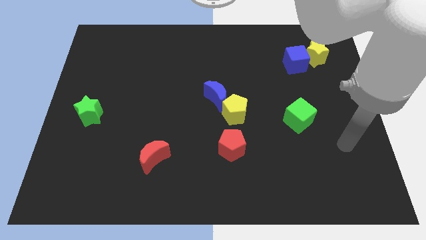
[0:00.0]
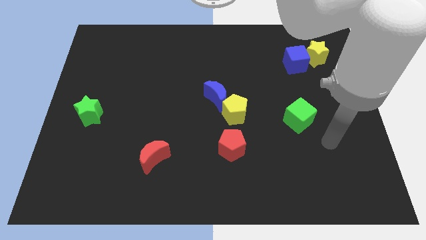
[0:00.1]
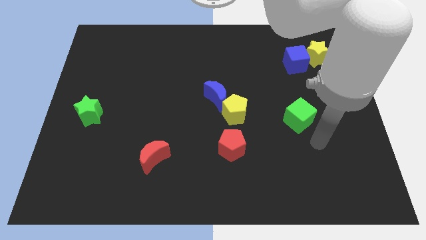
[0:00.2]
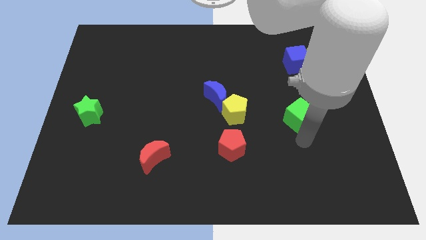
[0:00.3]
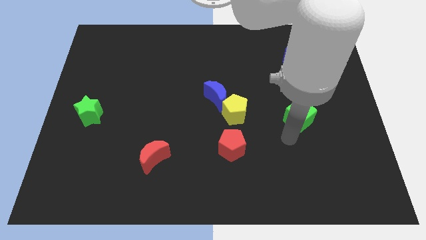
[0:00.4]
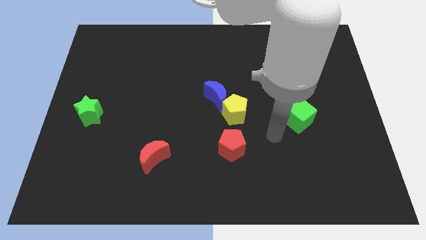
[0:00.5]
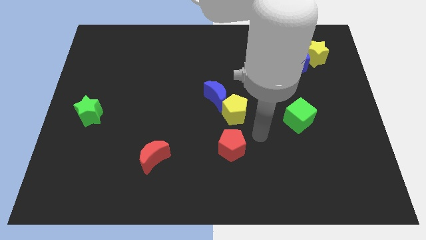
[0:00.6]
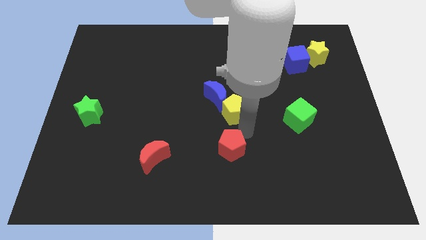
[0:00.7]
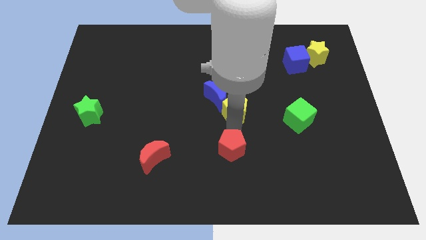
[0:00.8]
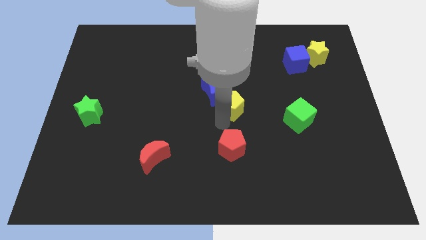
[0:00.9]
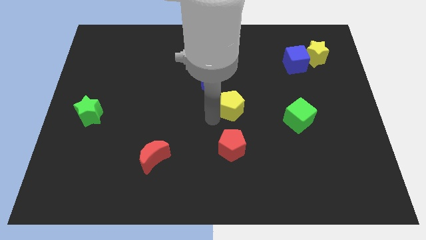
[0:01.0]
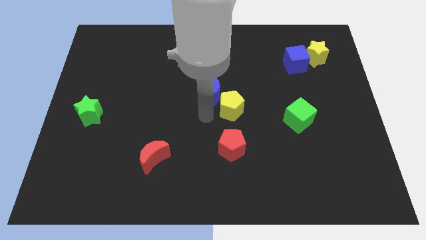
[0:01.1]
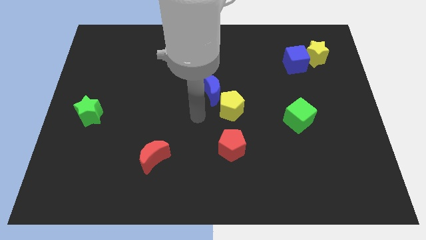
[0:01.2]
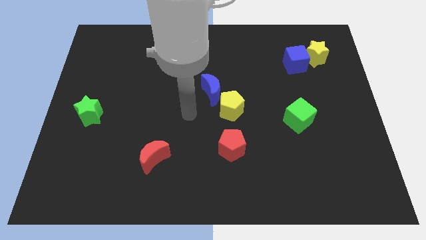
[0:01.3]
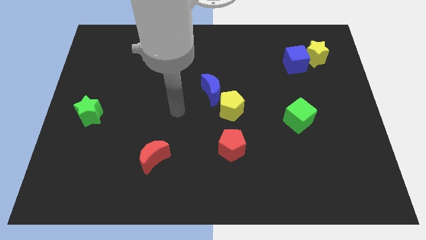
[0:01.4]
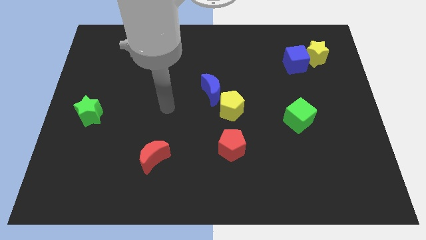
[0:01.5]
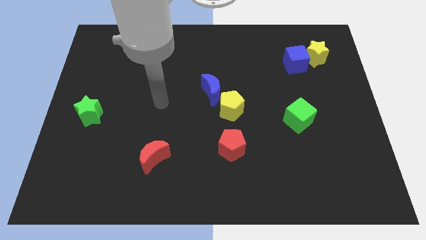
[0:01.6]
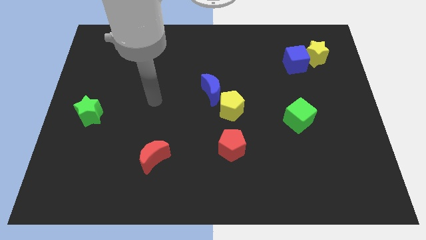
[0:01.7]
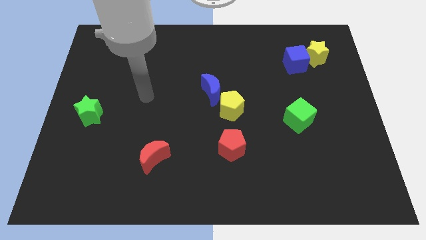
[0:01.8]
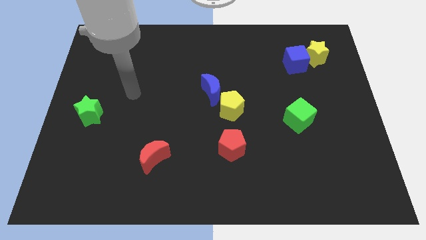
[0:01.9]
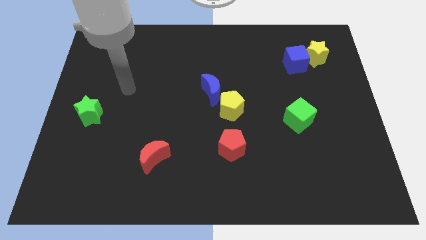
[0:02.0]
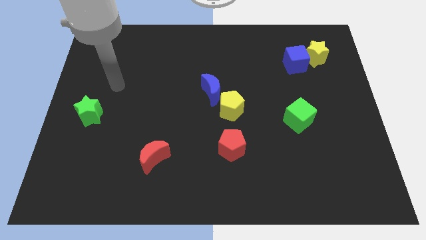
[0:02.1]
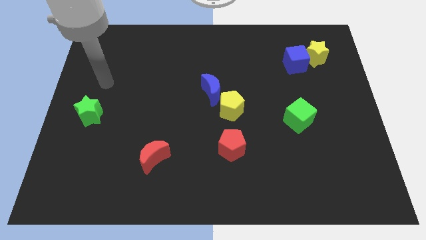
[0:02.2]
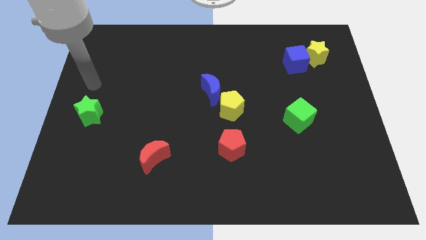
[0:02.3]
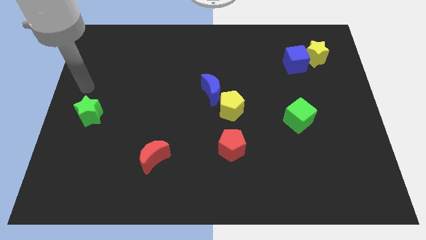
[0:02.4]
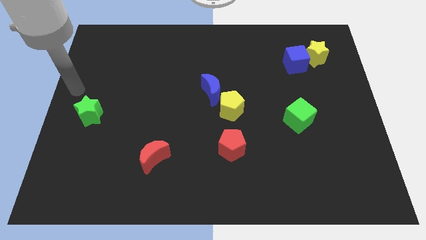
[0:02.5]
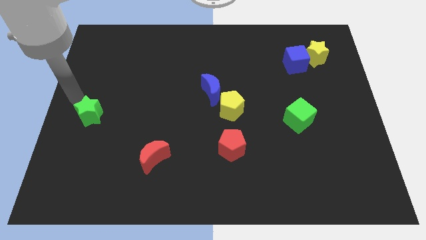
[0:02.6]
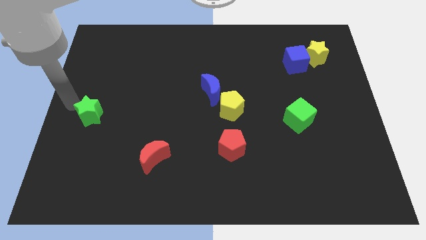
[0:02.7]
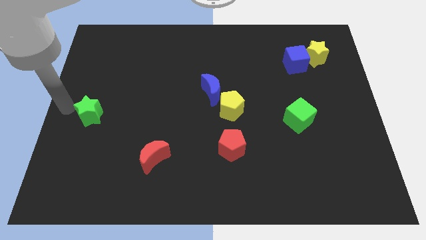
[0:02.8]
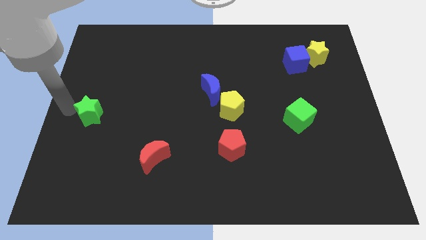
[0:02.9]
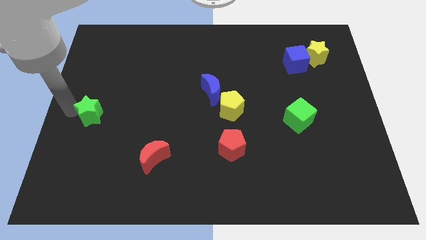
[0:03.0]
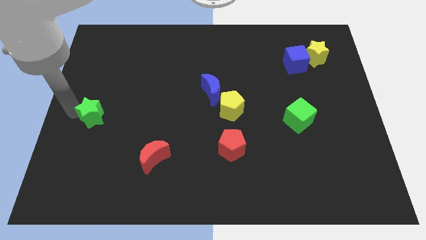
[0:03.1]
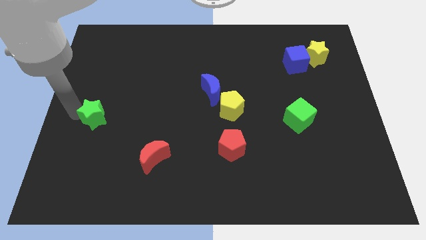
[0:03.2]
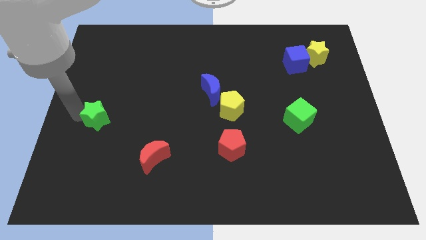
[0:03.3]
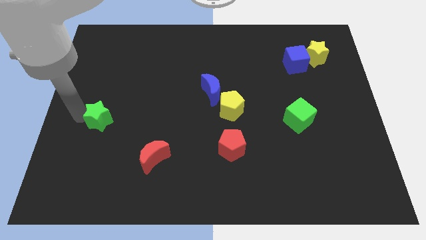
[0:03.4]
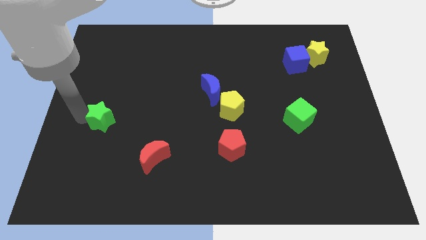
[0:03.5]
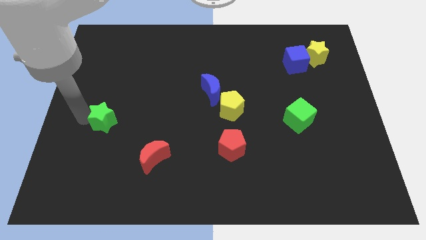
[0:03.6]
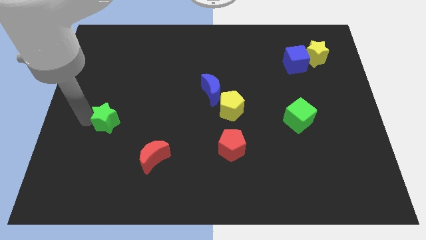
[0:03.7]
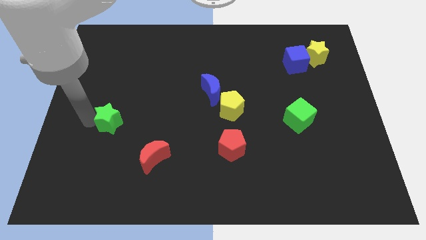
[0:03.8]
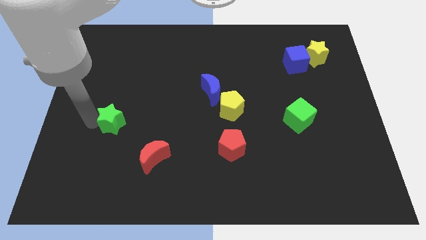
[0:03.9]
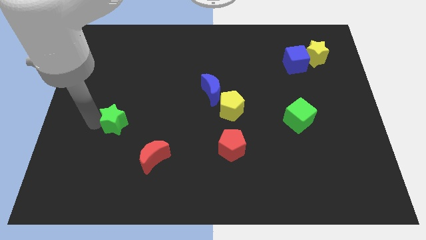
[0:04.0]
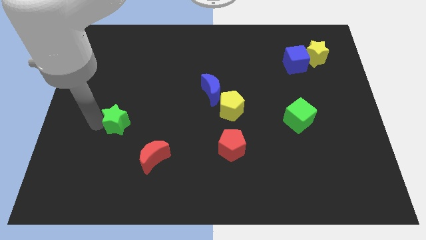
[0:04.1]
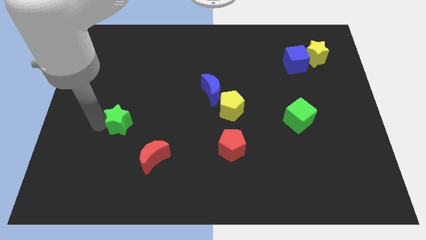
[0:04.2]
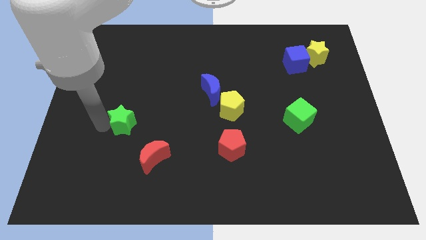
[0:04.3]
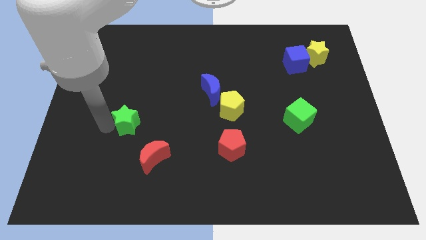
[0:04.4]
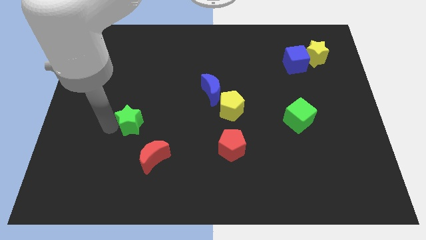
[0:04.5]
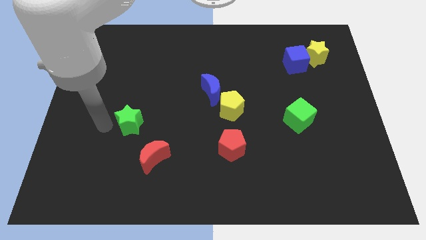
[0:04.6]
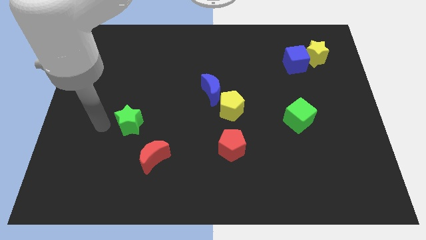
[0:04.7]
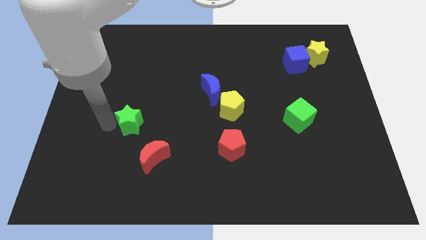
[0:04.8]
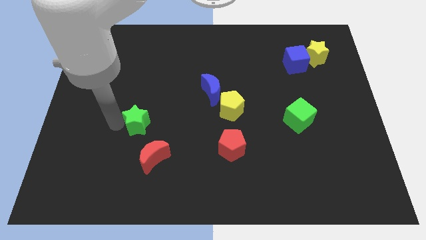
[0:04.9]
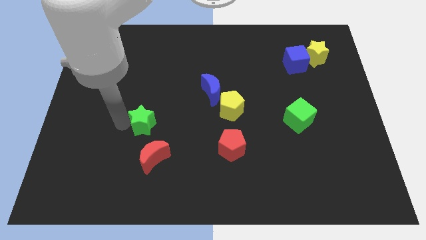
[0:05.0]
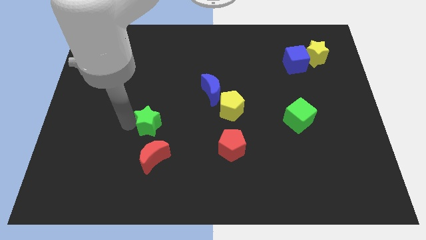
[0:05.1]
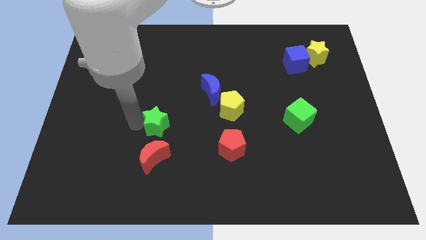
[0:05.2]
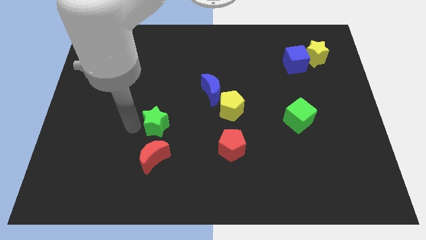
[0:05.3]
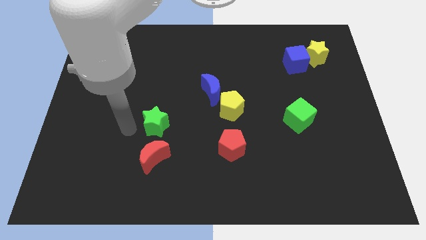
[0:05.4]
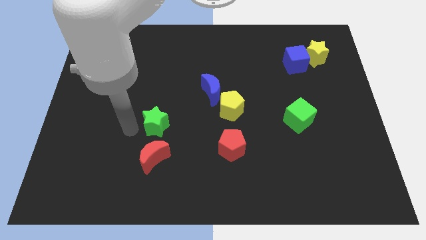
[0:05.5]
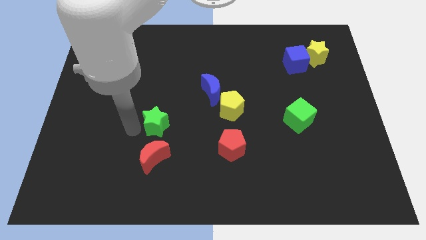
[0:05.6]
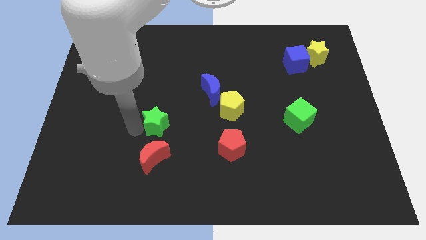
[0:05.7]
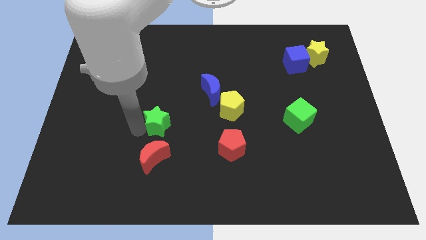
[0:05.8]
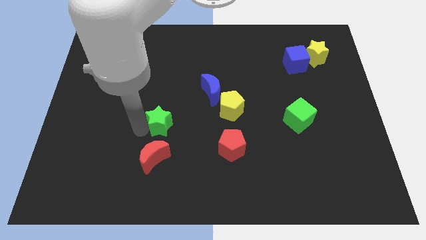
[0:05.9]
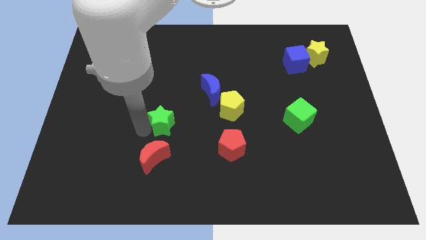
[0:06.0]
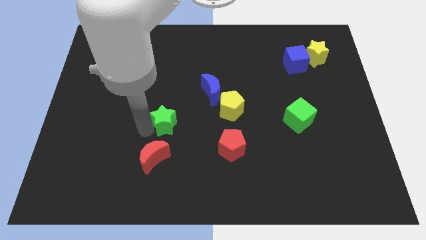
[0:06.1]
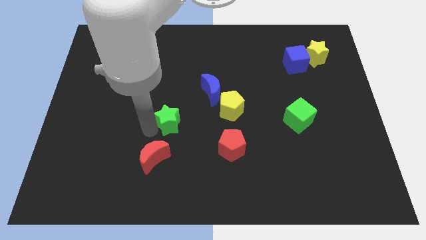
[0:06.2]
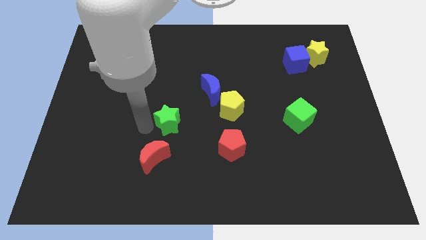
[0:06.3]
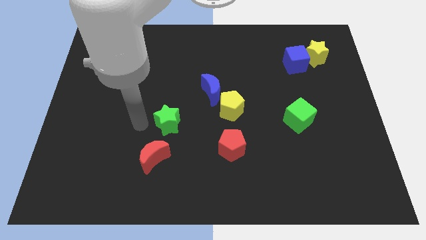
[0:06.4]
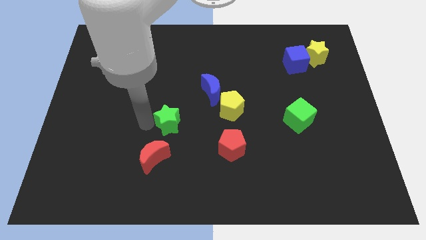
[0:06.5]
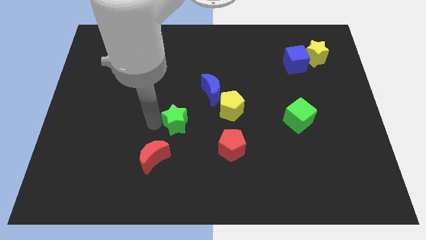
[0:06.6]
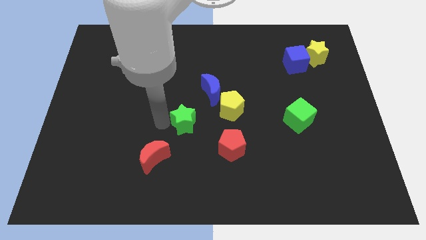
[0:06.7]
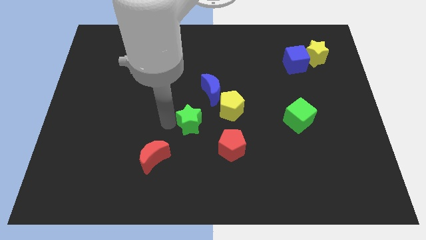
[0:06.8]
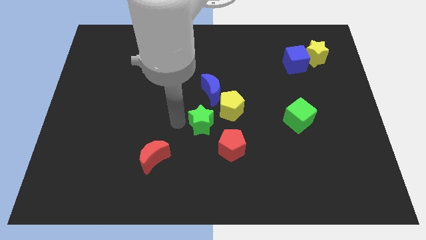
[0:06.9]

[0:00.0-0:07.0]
slide the green star to the bottom side of the blue moon

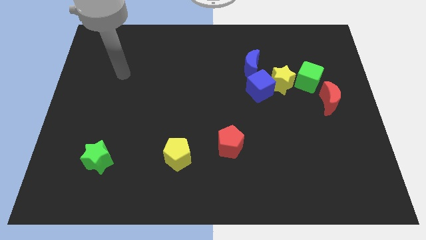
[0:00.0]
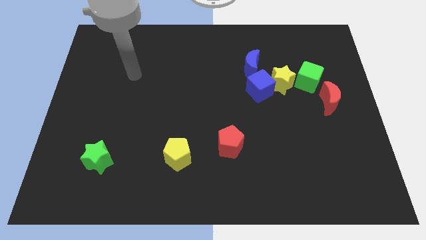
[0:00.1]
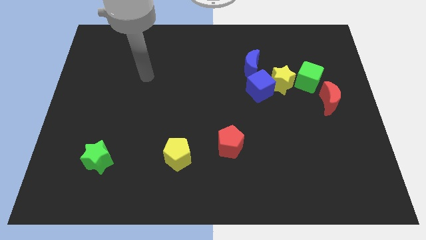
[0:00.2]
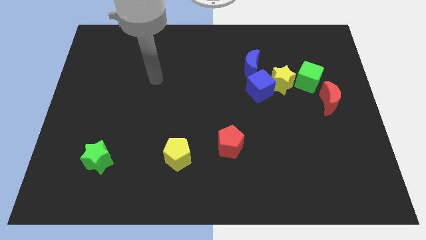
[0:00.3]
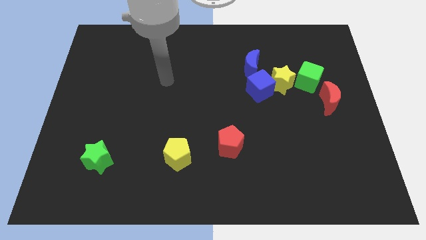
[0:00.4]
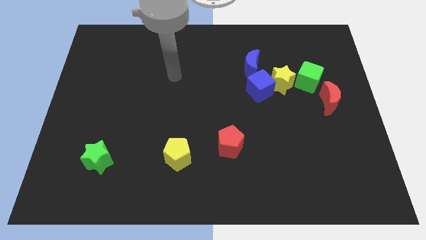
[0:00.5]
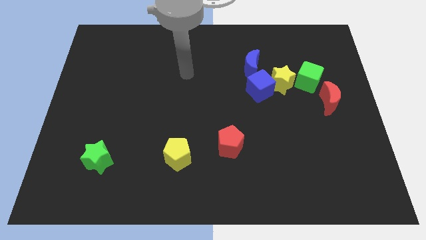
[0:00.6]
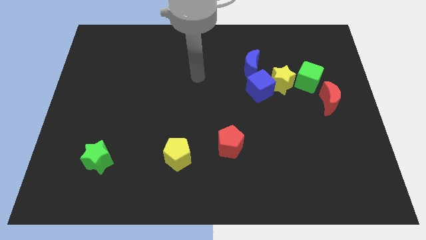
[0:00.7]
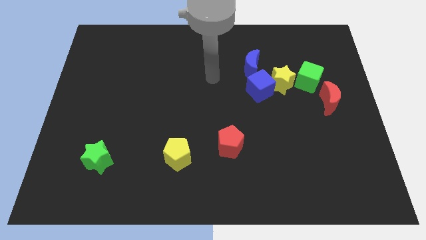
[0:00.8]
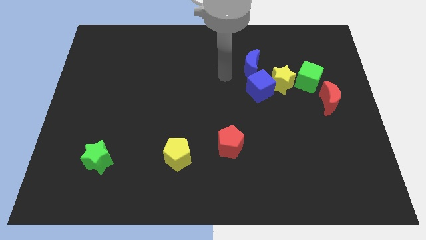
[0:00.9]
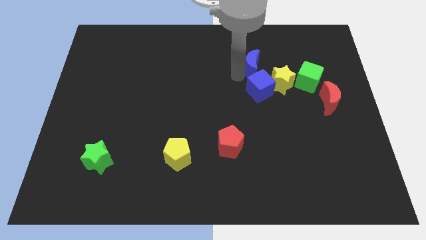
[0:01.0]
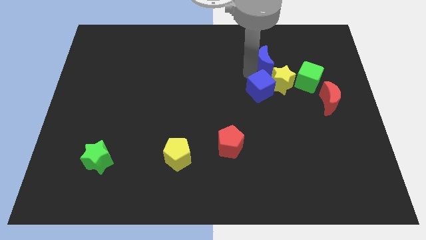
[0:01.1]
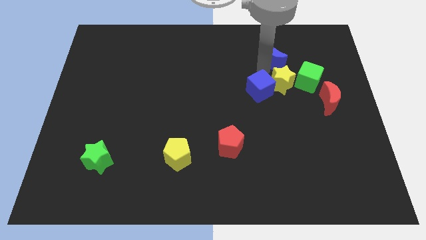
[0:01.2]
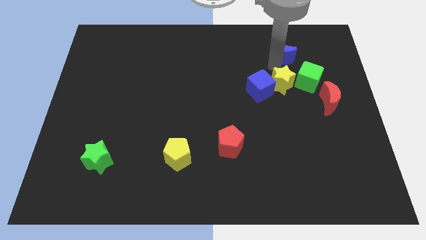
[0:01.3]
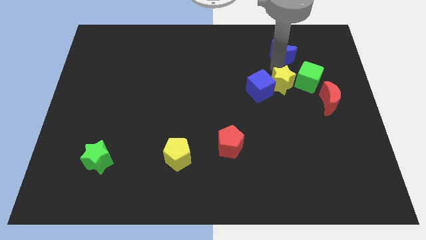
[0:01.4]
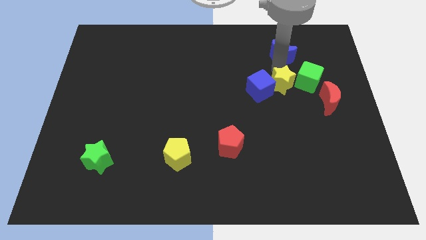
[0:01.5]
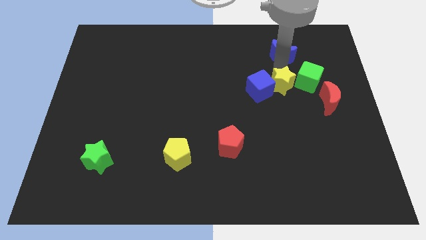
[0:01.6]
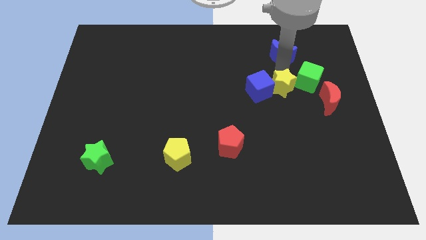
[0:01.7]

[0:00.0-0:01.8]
move the yellow star just left of the red moon
